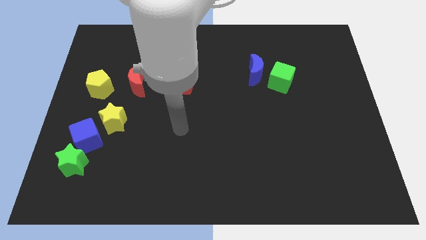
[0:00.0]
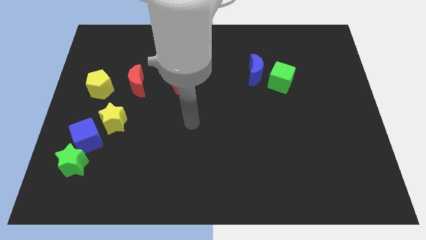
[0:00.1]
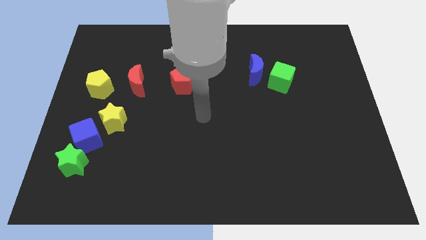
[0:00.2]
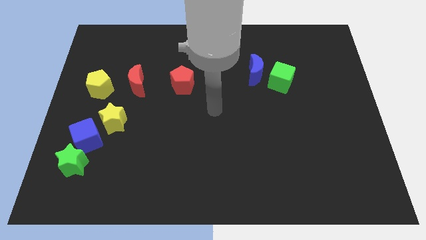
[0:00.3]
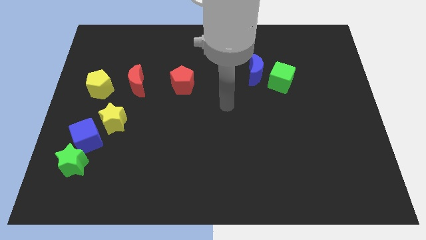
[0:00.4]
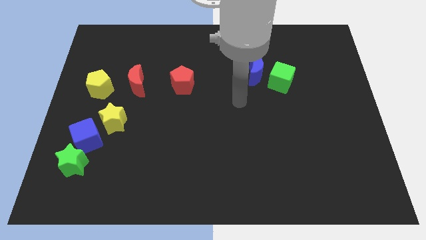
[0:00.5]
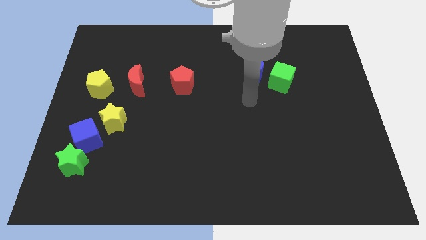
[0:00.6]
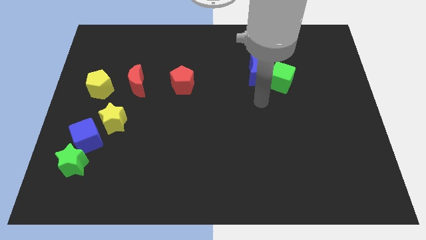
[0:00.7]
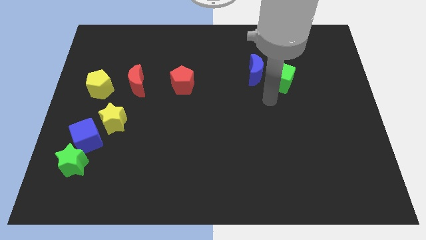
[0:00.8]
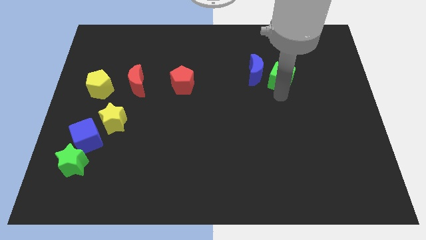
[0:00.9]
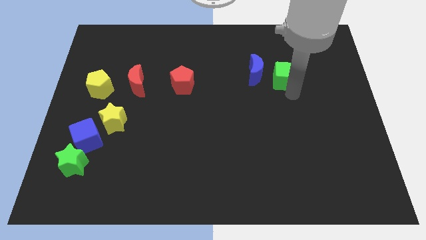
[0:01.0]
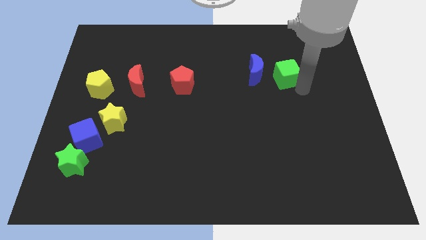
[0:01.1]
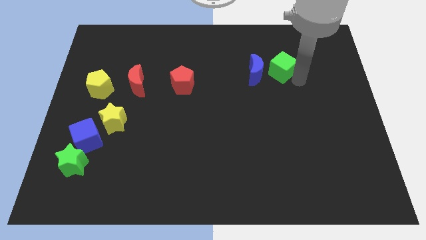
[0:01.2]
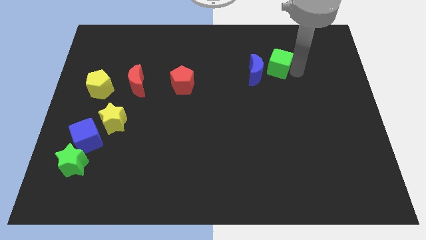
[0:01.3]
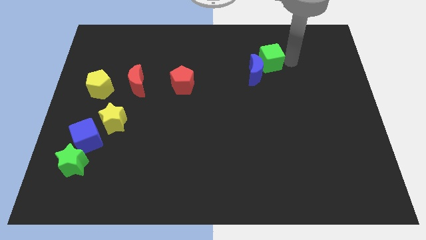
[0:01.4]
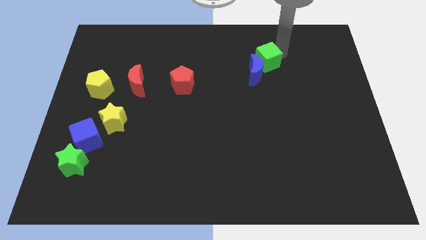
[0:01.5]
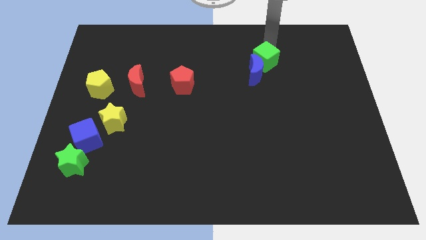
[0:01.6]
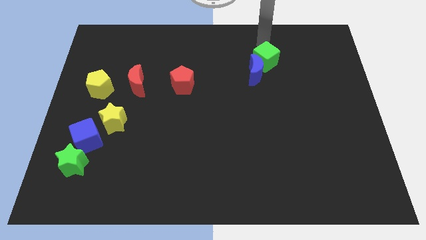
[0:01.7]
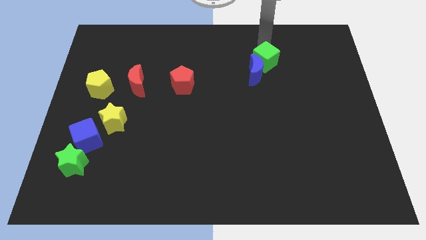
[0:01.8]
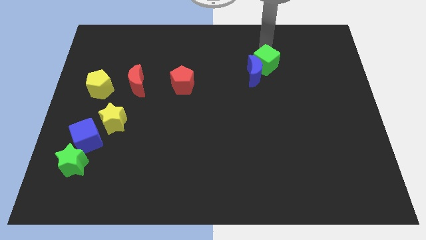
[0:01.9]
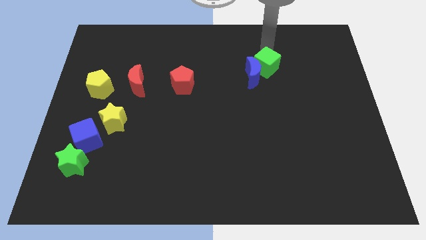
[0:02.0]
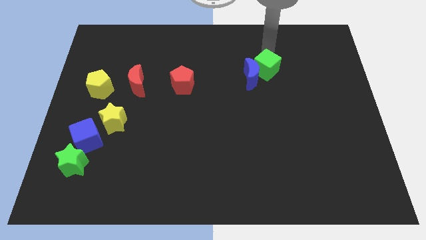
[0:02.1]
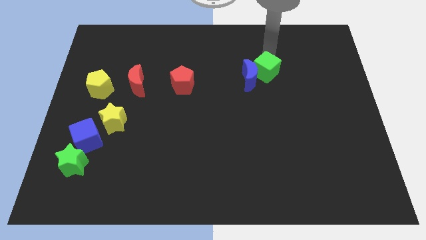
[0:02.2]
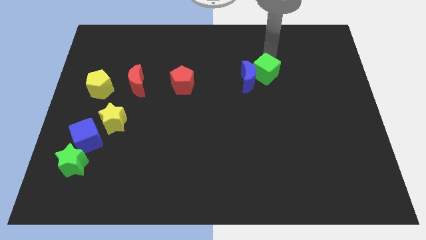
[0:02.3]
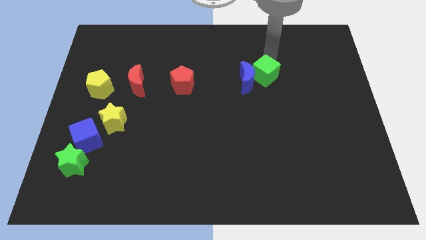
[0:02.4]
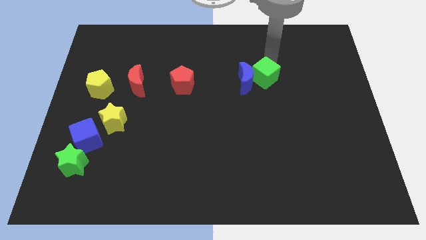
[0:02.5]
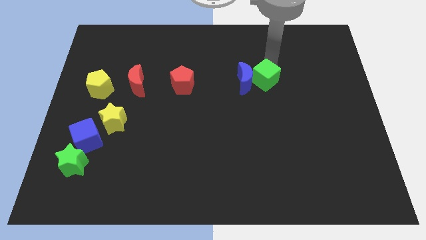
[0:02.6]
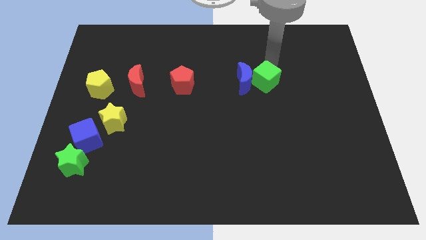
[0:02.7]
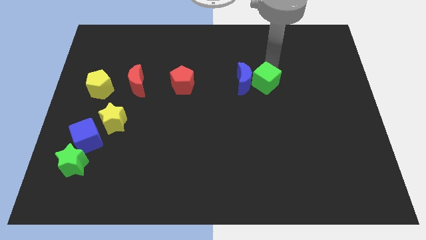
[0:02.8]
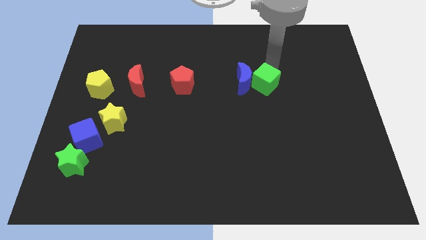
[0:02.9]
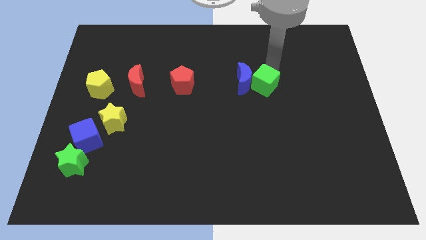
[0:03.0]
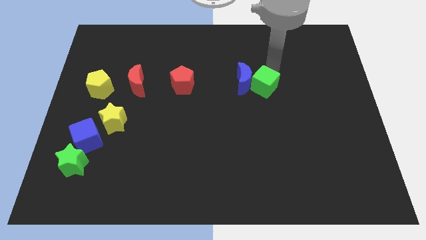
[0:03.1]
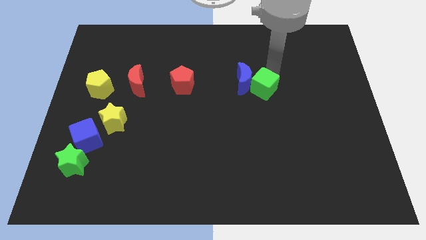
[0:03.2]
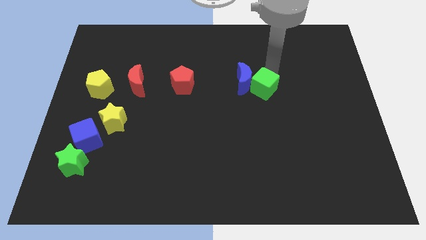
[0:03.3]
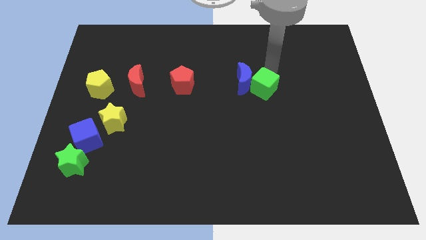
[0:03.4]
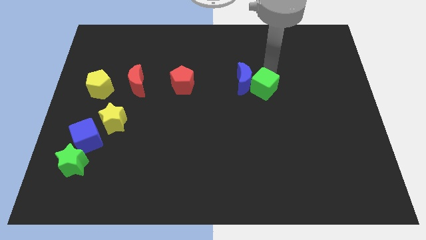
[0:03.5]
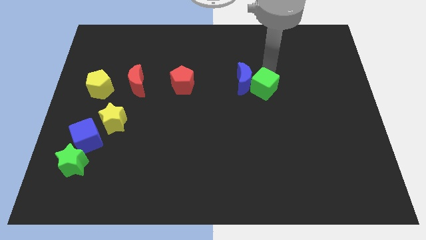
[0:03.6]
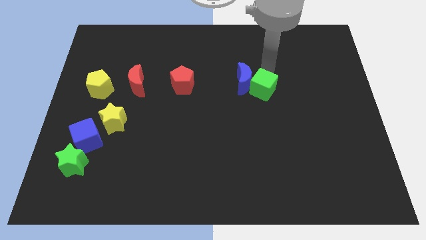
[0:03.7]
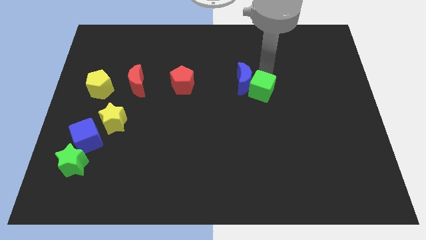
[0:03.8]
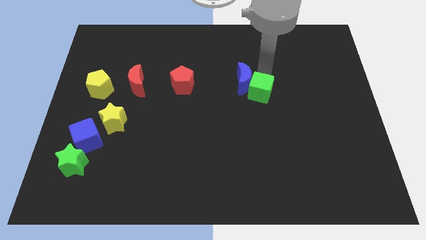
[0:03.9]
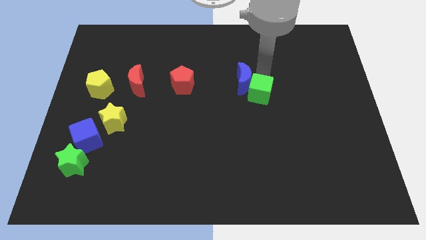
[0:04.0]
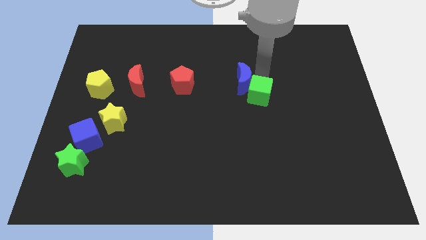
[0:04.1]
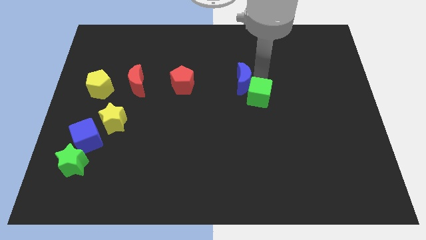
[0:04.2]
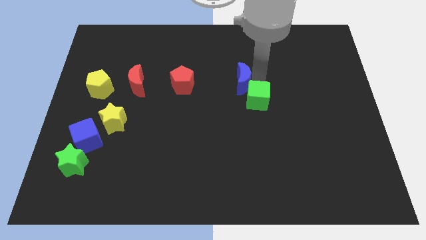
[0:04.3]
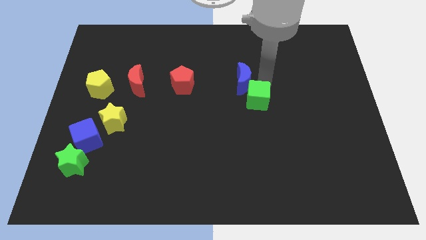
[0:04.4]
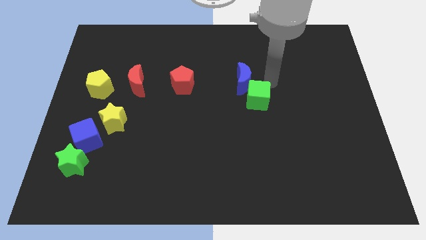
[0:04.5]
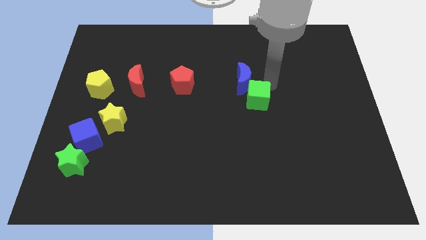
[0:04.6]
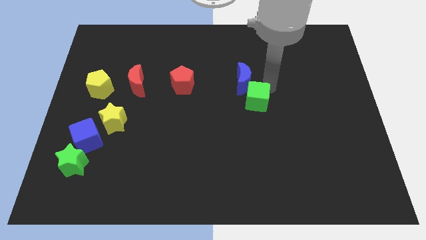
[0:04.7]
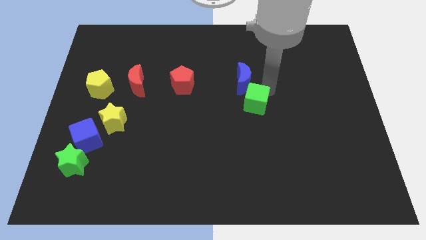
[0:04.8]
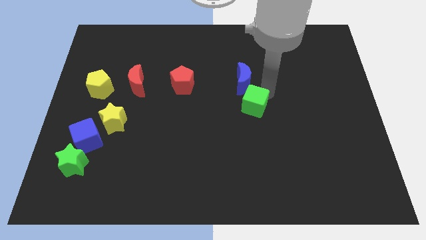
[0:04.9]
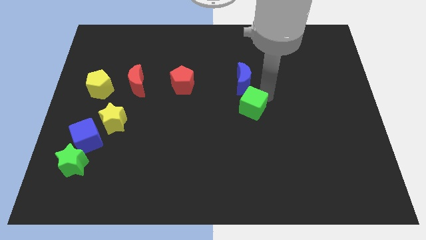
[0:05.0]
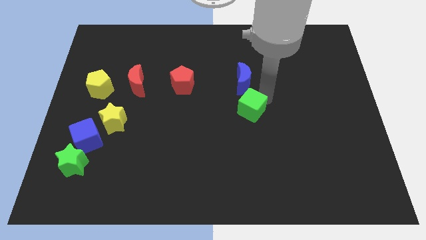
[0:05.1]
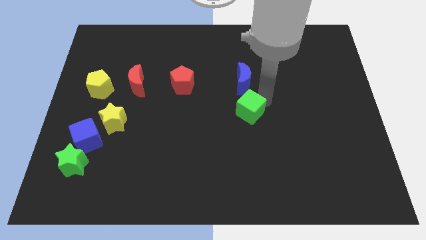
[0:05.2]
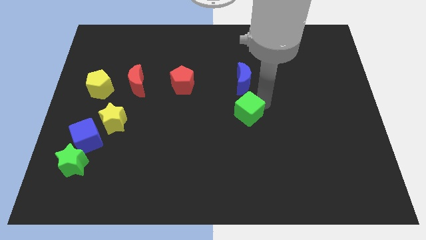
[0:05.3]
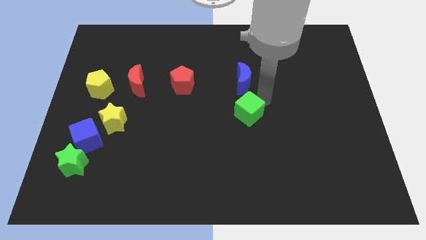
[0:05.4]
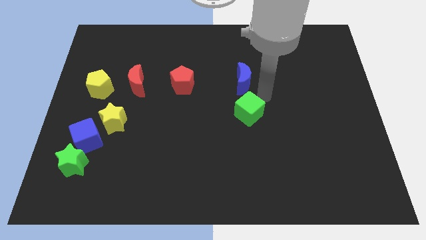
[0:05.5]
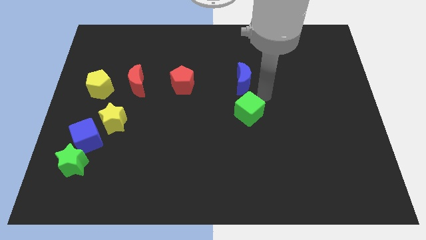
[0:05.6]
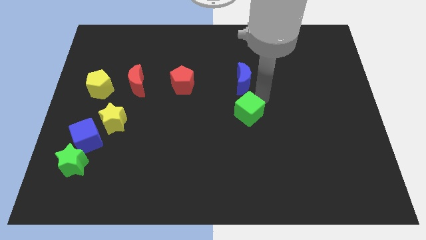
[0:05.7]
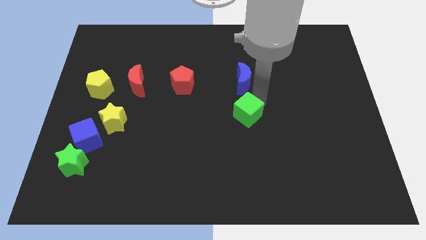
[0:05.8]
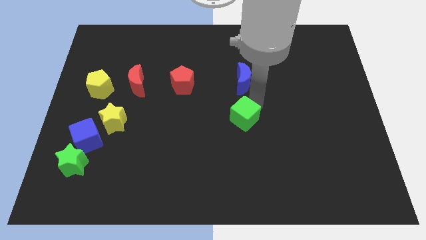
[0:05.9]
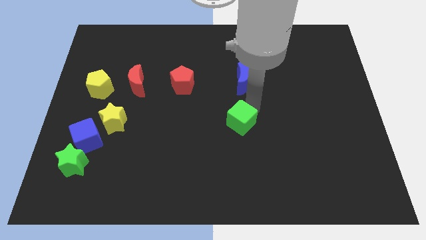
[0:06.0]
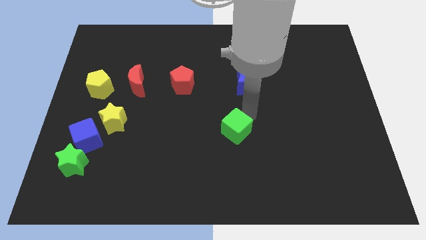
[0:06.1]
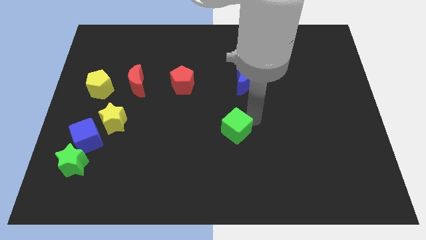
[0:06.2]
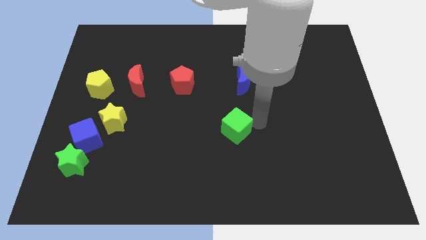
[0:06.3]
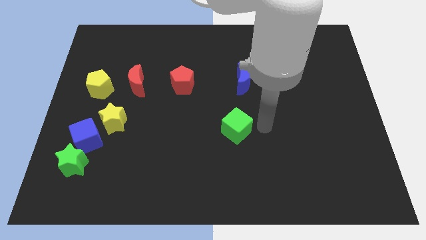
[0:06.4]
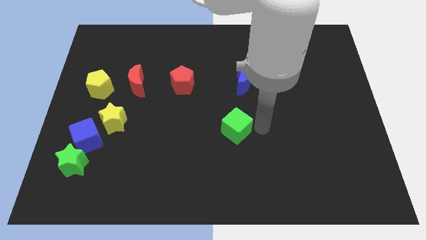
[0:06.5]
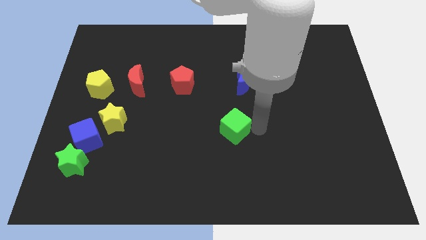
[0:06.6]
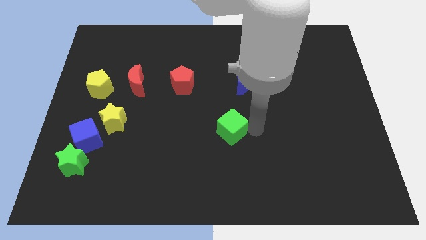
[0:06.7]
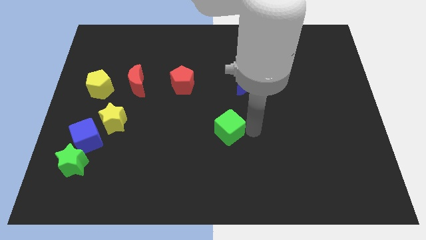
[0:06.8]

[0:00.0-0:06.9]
push the green cube down and then left

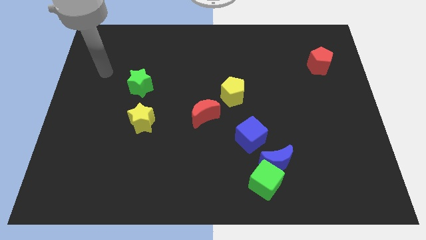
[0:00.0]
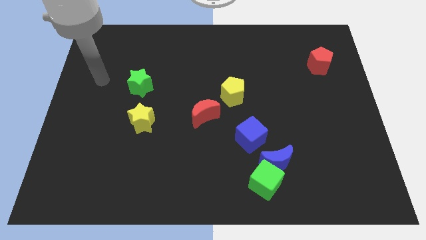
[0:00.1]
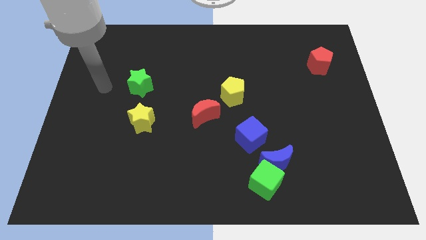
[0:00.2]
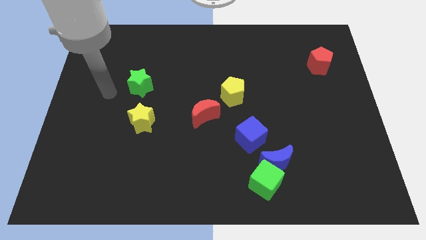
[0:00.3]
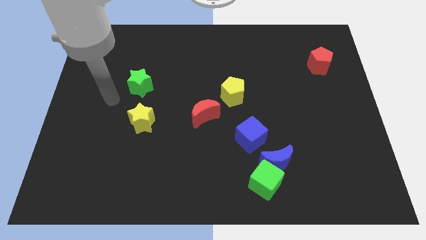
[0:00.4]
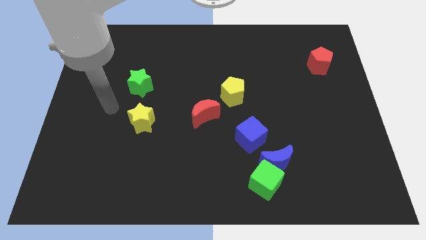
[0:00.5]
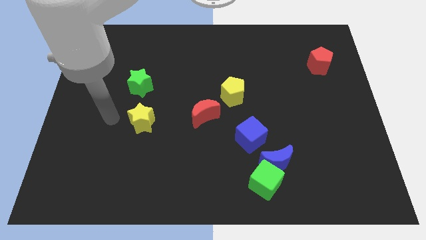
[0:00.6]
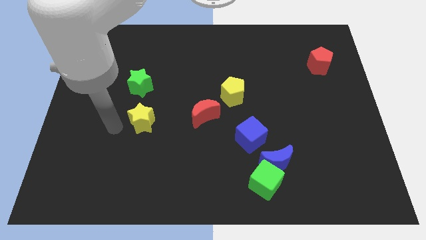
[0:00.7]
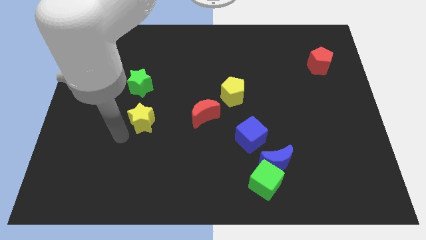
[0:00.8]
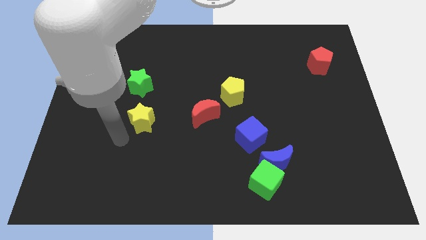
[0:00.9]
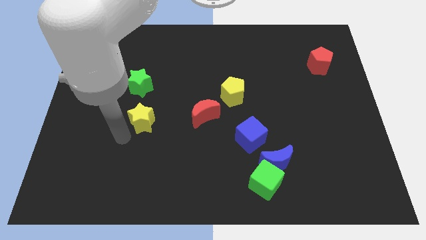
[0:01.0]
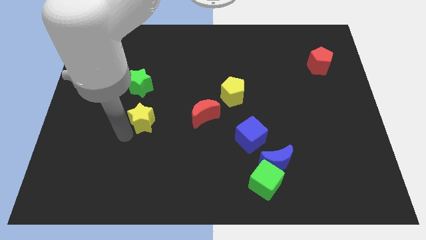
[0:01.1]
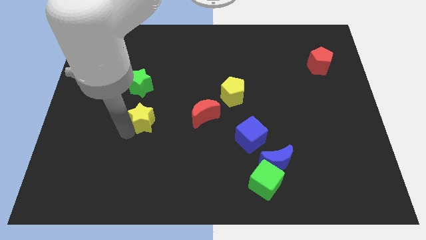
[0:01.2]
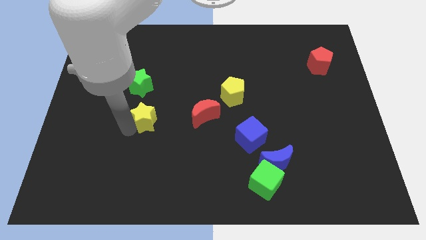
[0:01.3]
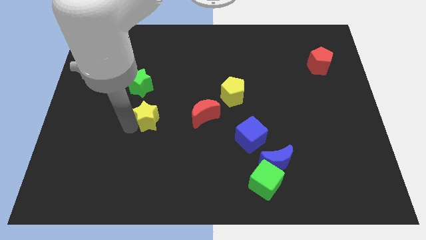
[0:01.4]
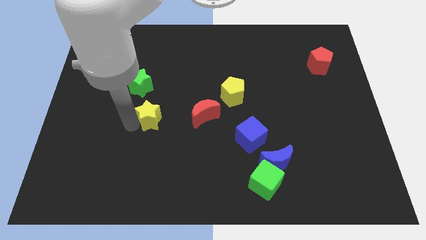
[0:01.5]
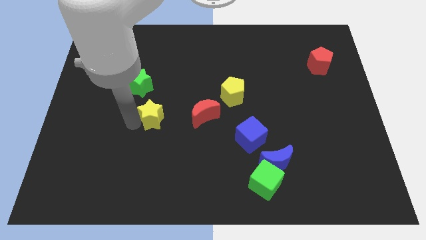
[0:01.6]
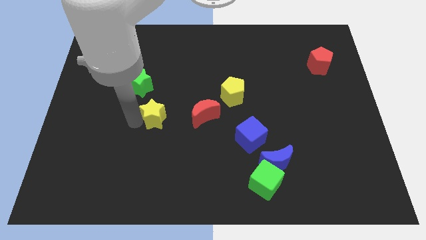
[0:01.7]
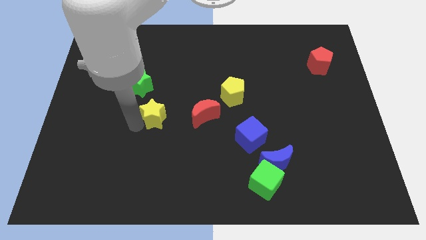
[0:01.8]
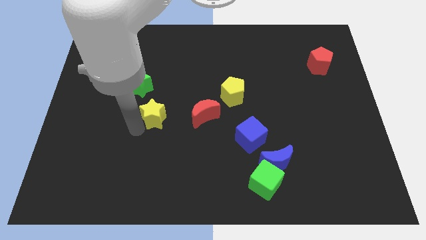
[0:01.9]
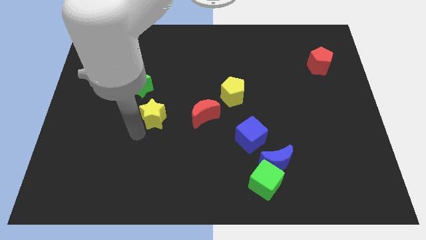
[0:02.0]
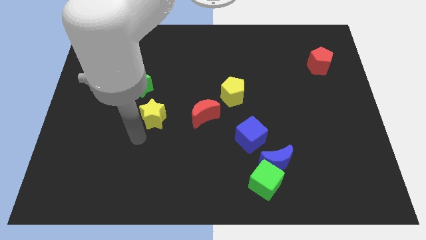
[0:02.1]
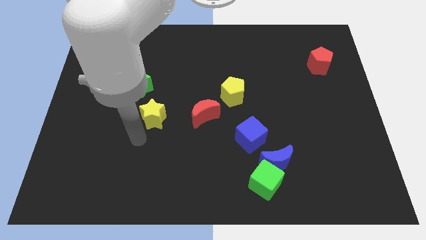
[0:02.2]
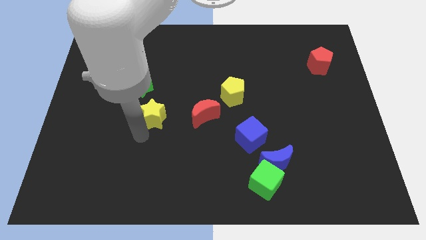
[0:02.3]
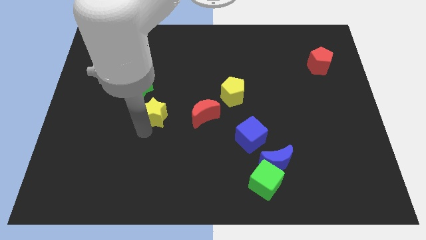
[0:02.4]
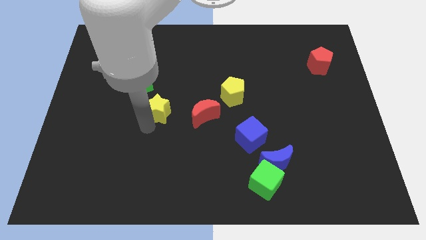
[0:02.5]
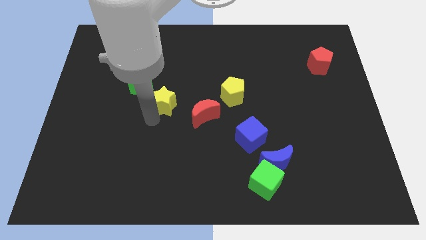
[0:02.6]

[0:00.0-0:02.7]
slide the yellow star up and to the right diagonally a little bit
